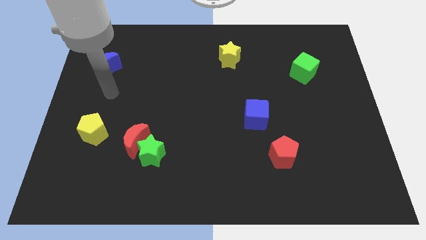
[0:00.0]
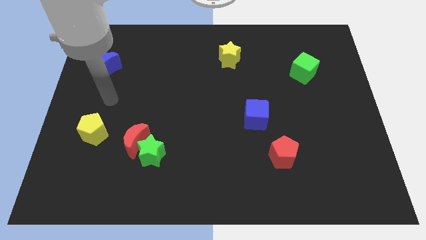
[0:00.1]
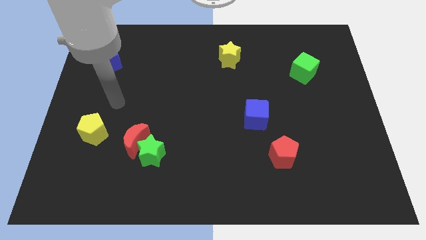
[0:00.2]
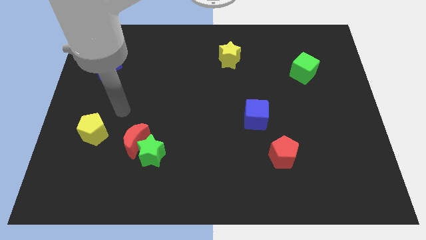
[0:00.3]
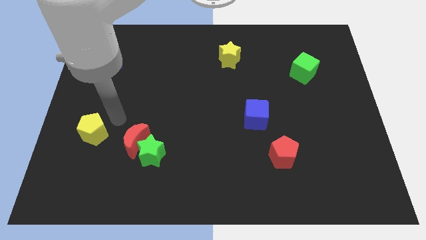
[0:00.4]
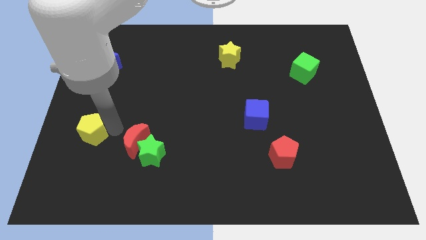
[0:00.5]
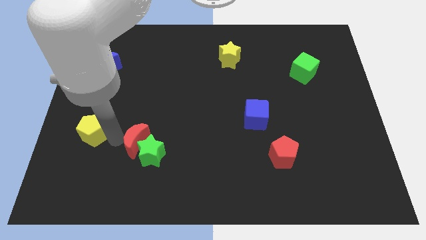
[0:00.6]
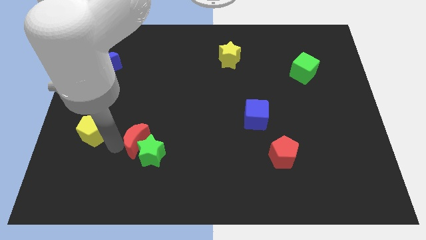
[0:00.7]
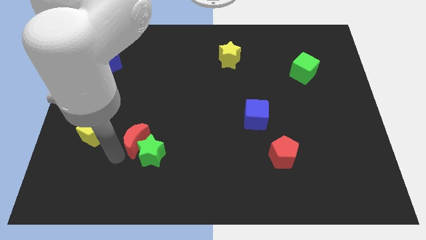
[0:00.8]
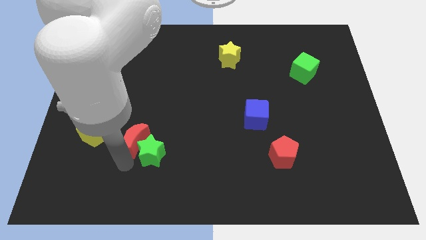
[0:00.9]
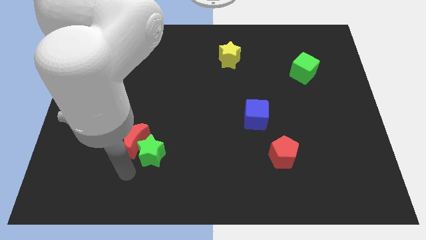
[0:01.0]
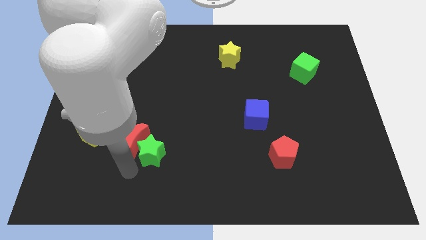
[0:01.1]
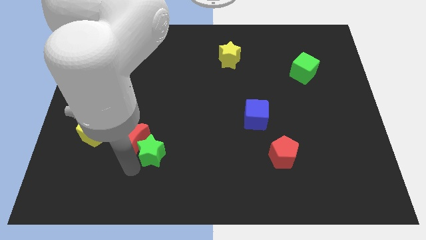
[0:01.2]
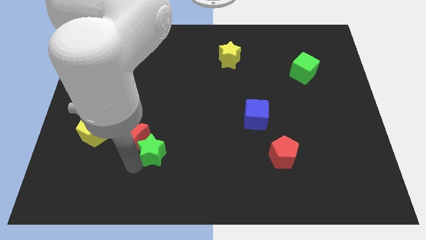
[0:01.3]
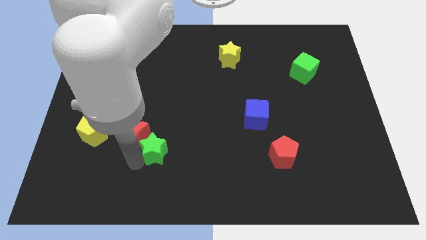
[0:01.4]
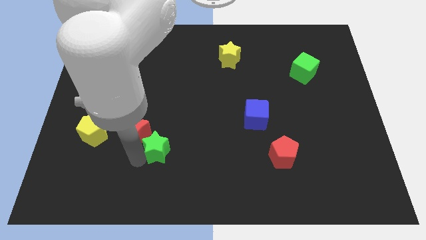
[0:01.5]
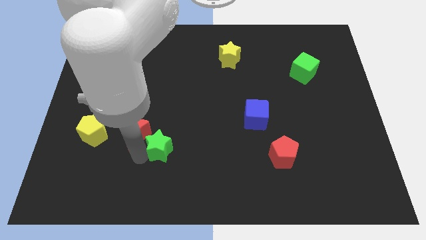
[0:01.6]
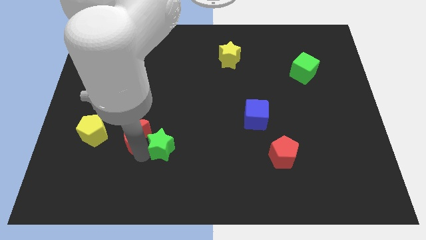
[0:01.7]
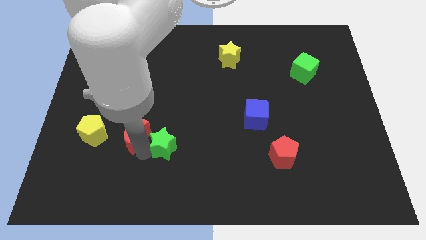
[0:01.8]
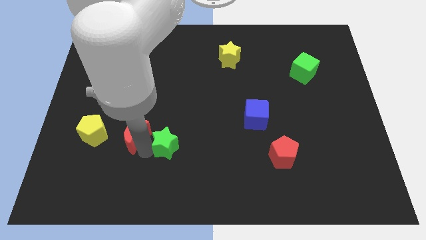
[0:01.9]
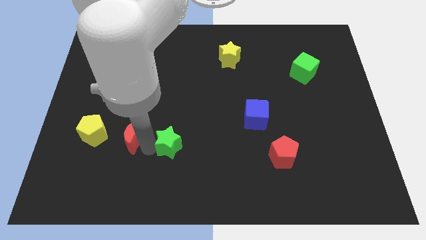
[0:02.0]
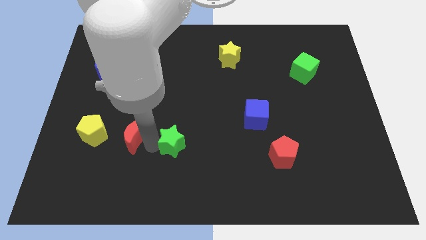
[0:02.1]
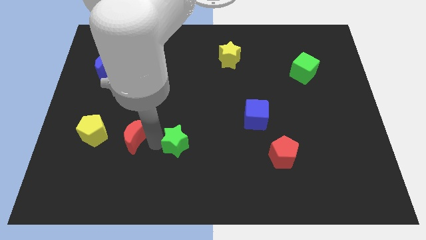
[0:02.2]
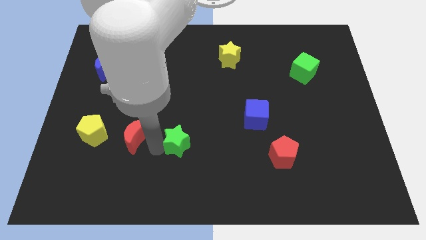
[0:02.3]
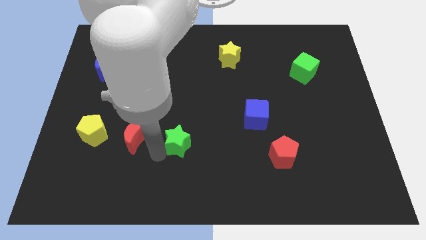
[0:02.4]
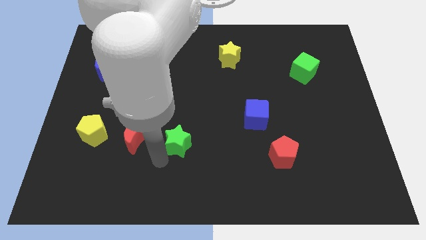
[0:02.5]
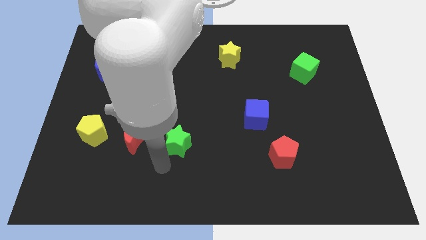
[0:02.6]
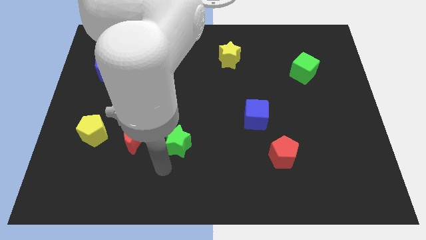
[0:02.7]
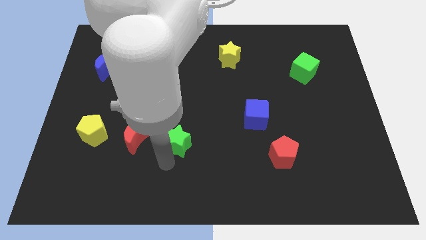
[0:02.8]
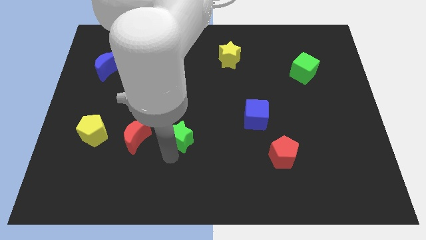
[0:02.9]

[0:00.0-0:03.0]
push the green star a bit up and to the right diagonally

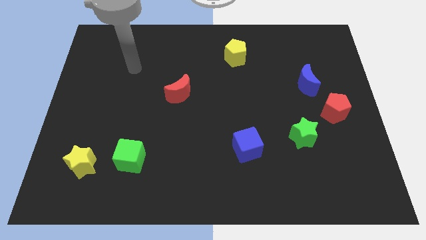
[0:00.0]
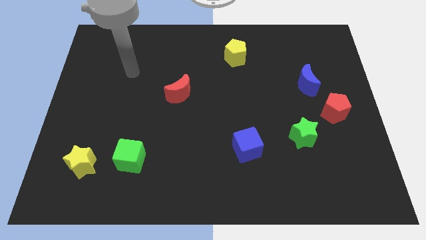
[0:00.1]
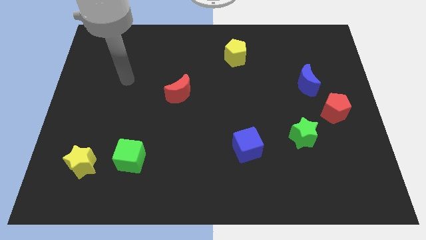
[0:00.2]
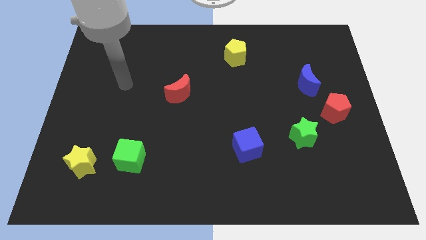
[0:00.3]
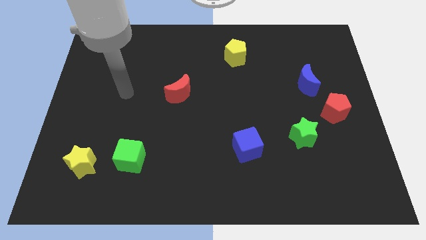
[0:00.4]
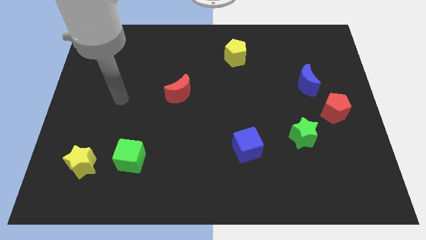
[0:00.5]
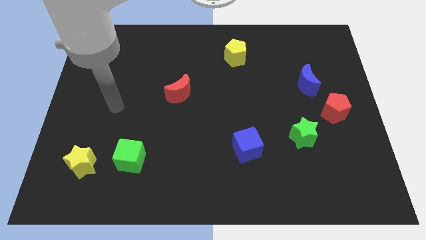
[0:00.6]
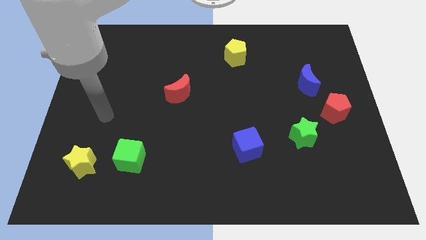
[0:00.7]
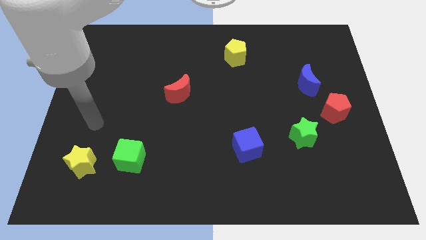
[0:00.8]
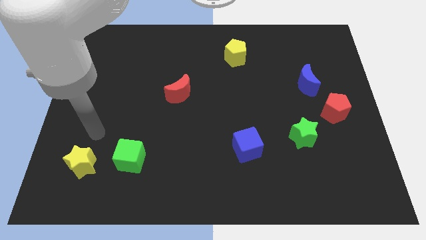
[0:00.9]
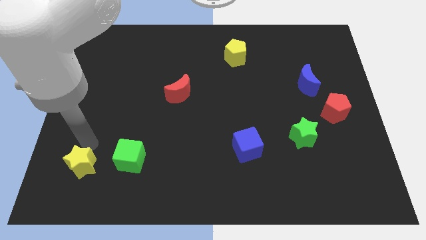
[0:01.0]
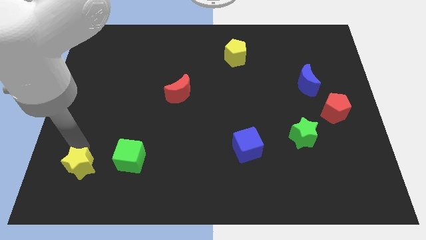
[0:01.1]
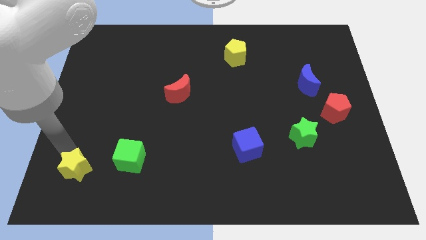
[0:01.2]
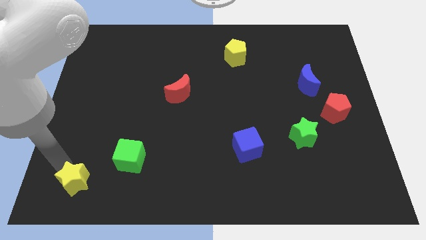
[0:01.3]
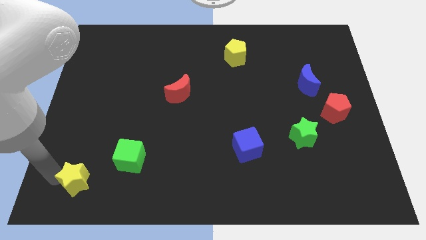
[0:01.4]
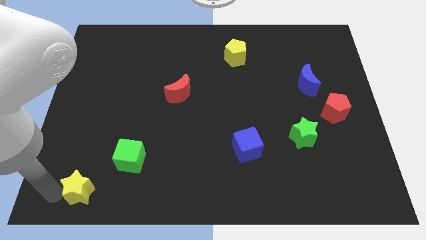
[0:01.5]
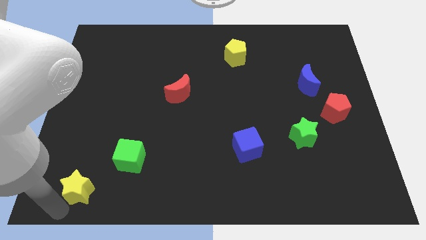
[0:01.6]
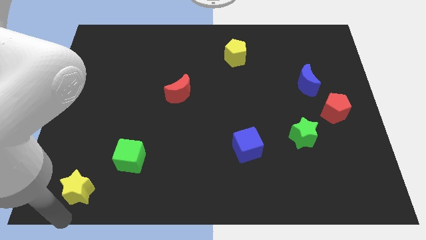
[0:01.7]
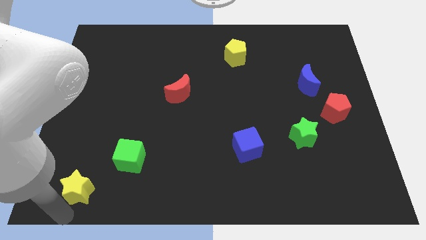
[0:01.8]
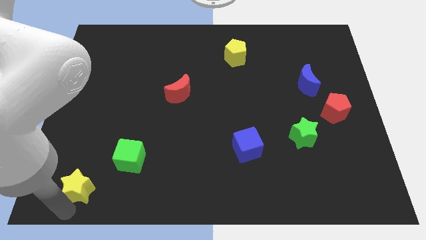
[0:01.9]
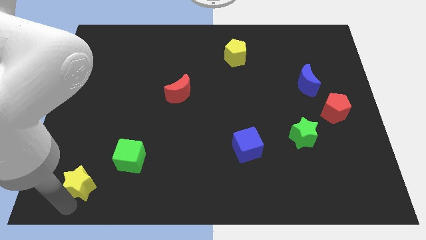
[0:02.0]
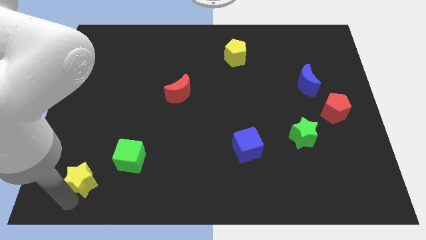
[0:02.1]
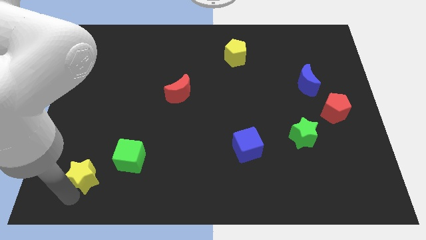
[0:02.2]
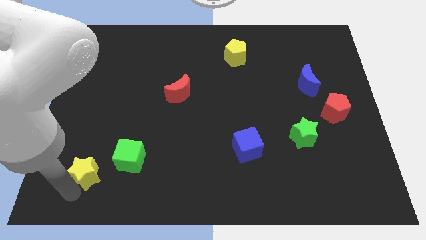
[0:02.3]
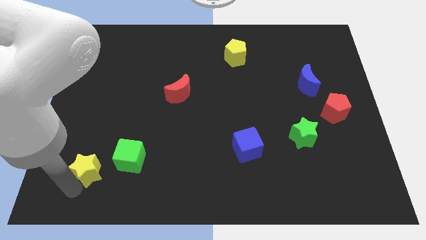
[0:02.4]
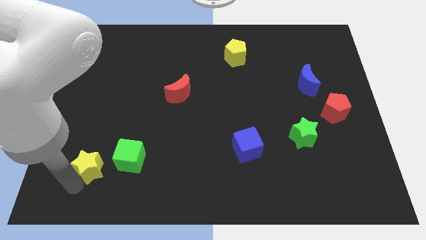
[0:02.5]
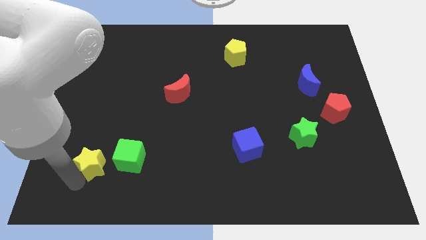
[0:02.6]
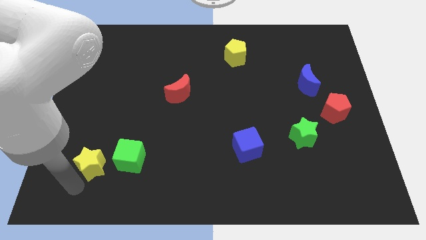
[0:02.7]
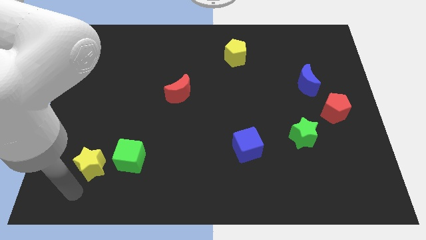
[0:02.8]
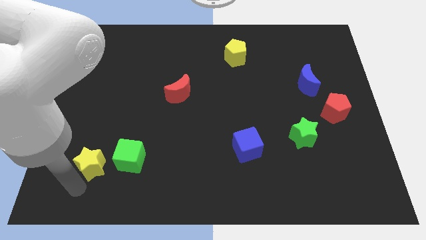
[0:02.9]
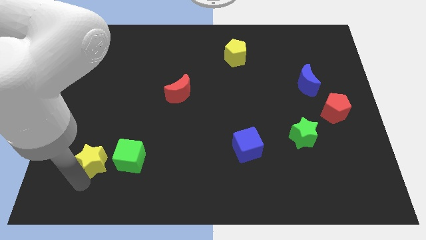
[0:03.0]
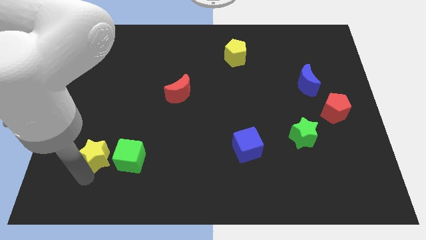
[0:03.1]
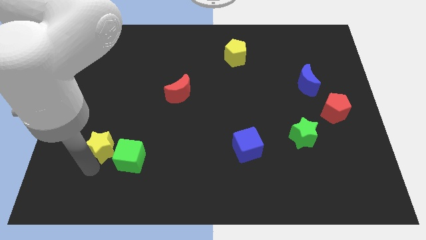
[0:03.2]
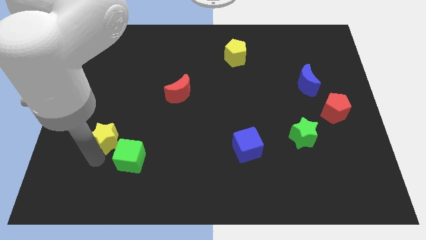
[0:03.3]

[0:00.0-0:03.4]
slide the yellow star upwards and then right a little bit

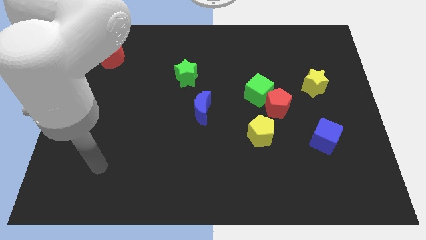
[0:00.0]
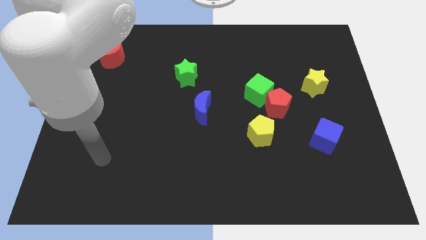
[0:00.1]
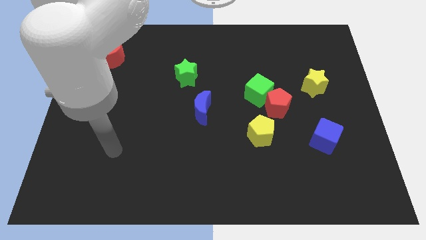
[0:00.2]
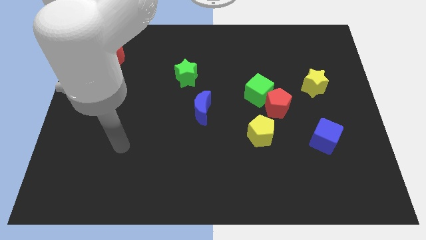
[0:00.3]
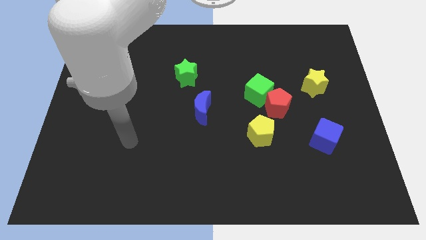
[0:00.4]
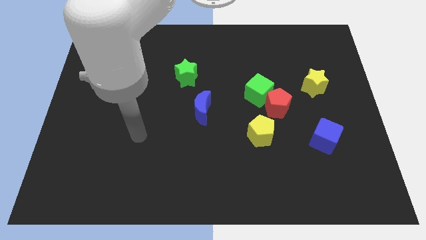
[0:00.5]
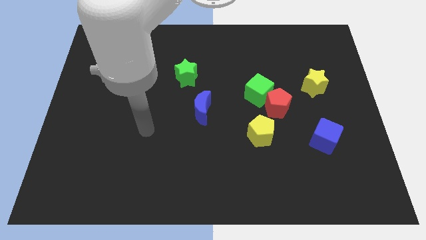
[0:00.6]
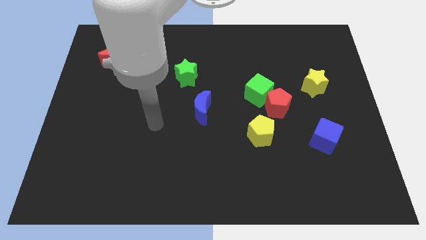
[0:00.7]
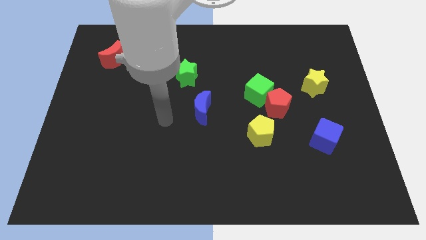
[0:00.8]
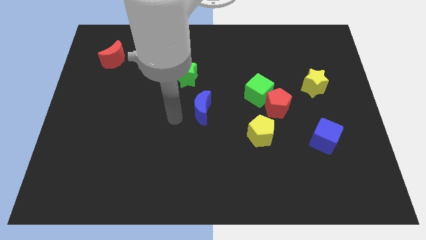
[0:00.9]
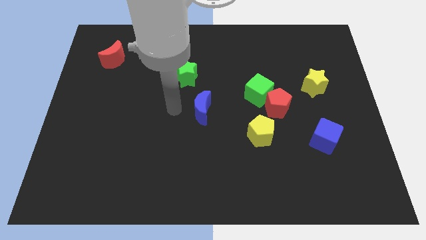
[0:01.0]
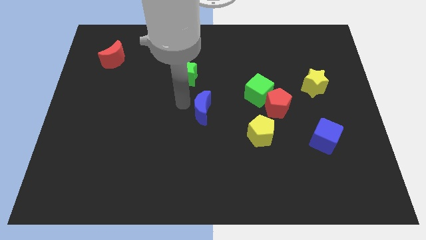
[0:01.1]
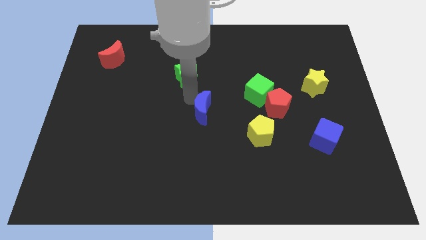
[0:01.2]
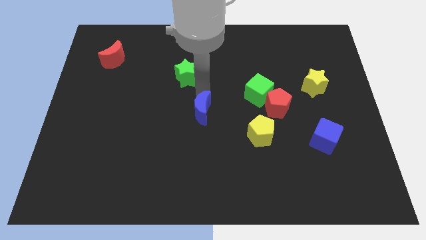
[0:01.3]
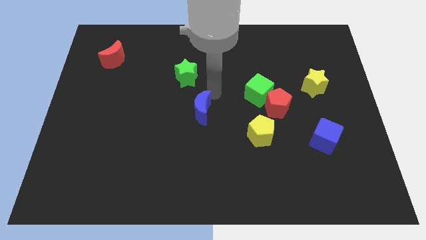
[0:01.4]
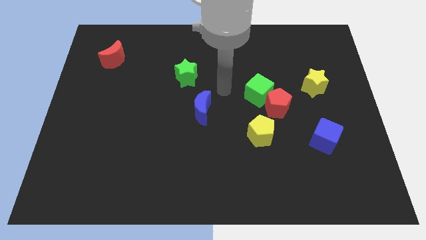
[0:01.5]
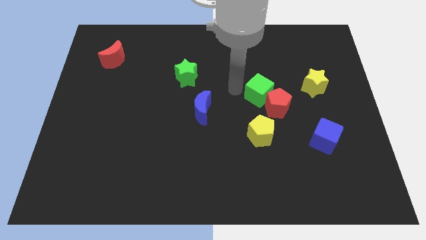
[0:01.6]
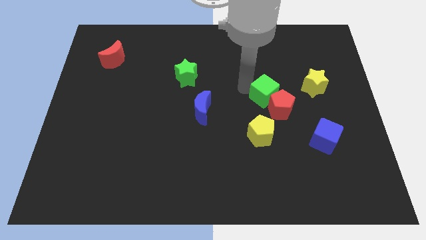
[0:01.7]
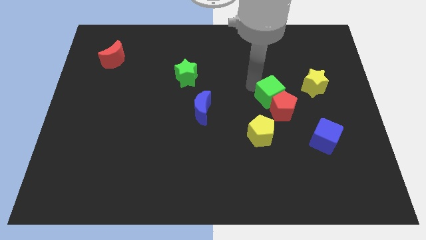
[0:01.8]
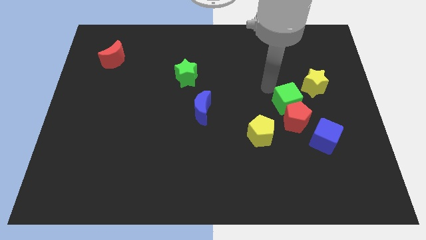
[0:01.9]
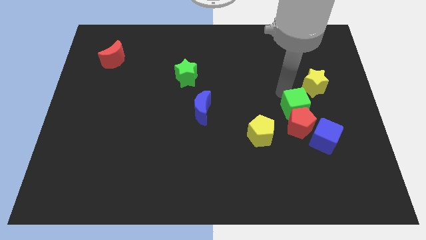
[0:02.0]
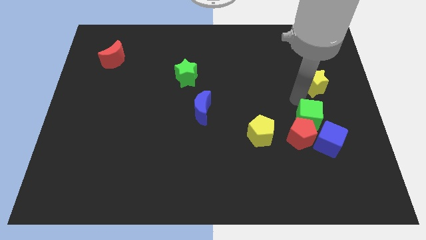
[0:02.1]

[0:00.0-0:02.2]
slightly move the red pentagon downwards

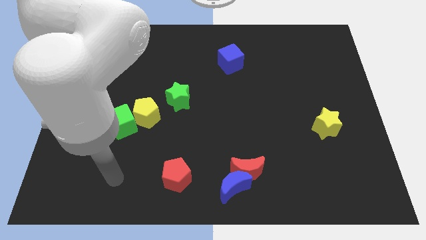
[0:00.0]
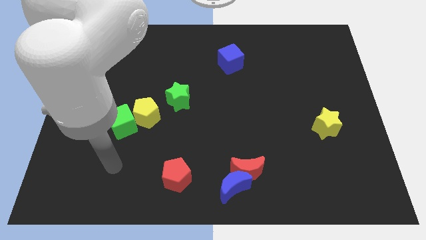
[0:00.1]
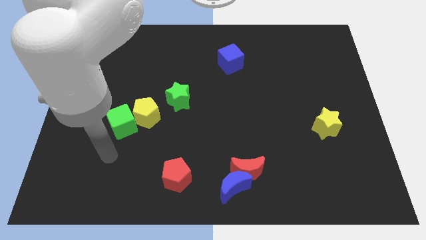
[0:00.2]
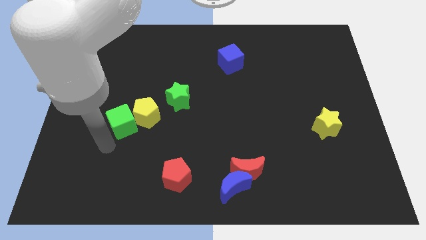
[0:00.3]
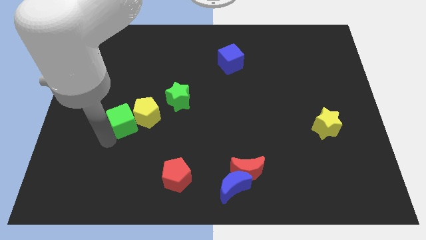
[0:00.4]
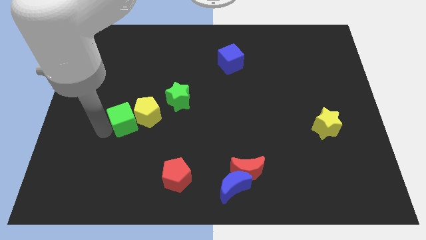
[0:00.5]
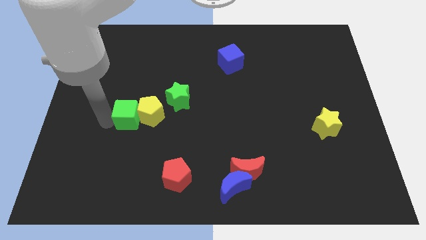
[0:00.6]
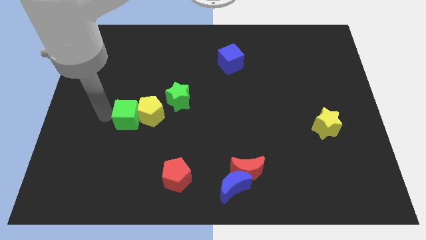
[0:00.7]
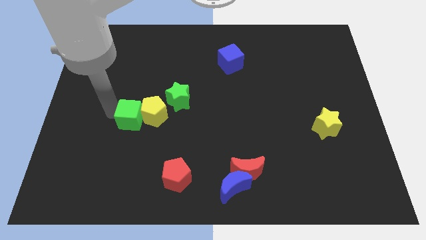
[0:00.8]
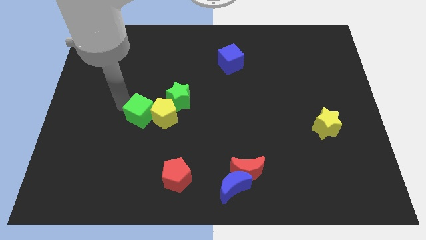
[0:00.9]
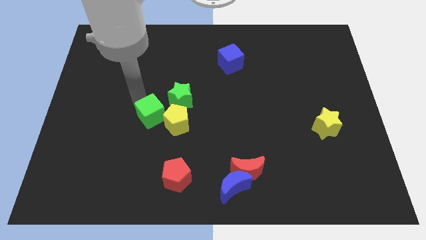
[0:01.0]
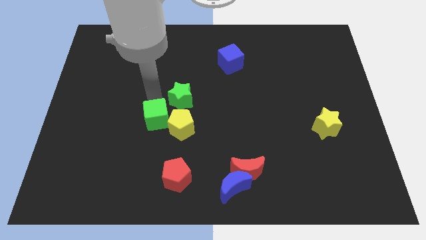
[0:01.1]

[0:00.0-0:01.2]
move the yellow pentagon a little bit down and to the right
